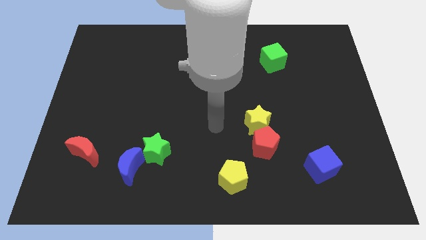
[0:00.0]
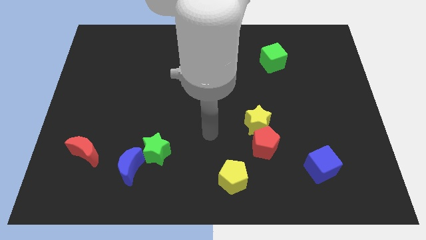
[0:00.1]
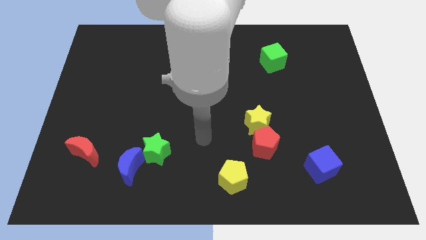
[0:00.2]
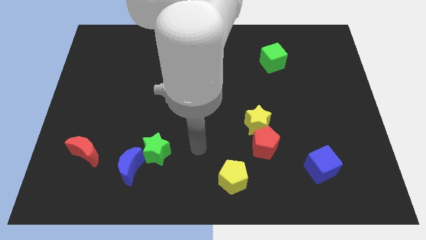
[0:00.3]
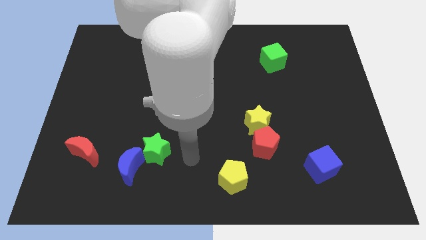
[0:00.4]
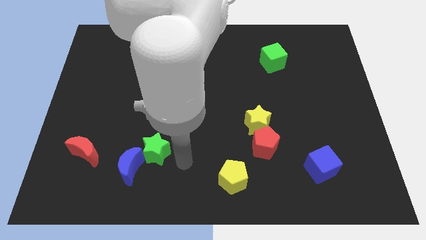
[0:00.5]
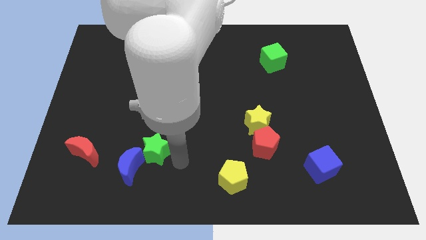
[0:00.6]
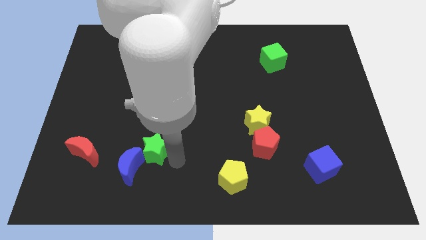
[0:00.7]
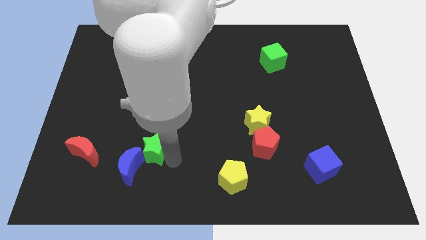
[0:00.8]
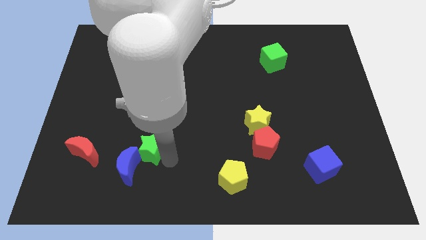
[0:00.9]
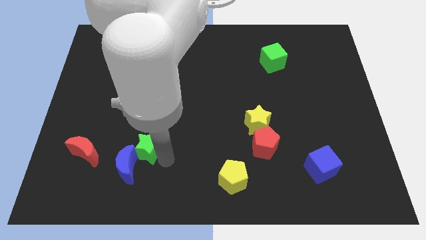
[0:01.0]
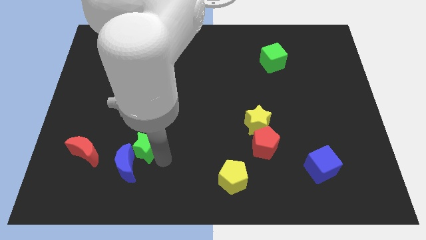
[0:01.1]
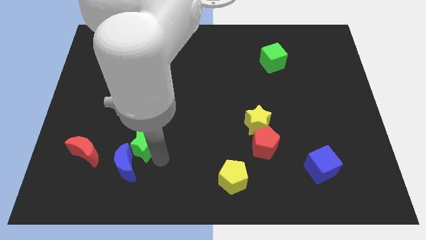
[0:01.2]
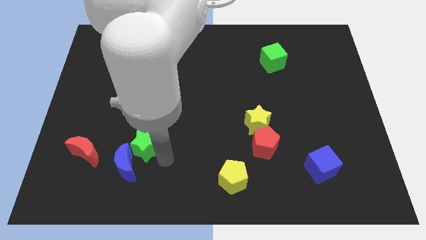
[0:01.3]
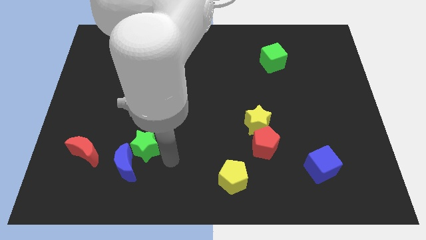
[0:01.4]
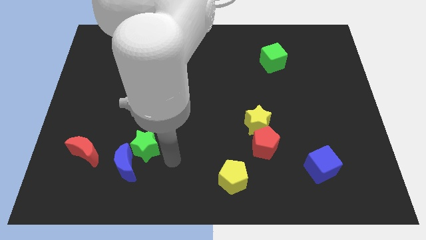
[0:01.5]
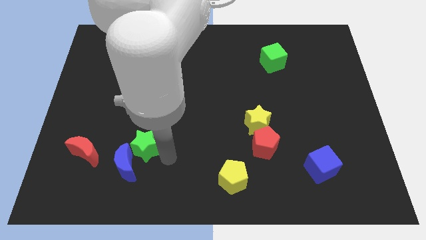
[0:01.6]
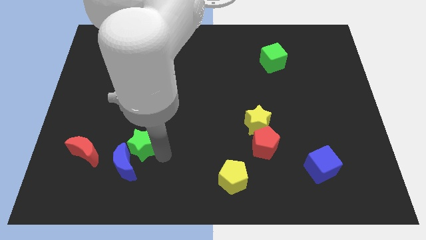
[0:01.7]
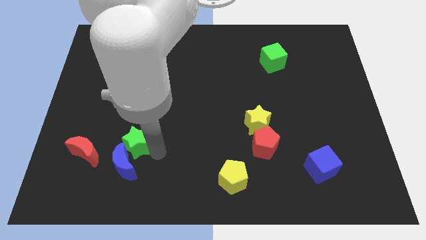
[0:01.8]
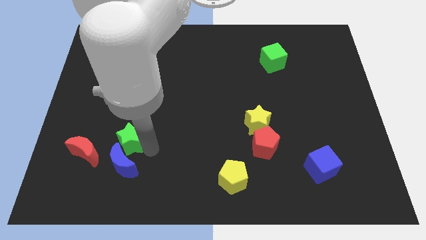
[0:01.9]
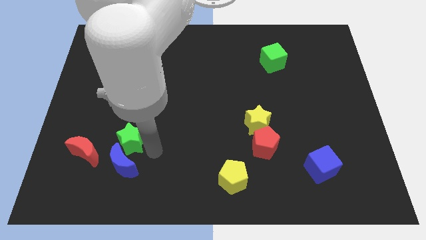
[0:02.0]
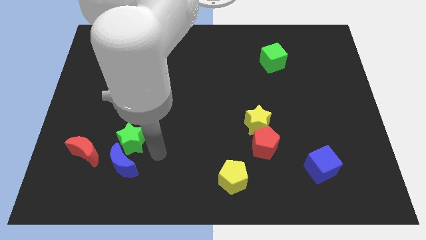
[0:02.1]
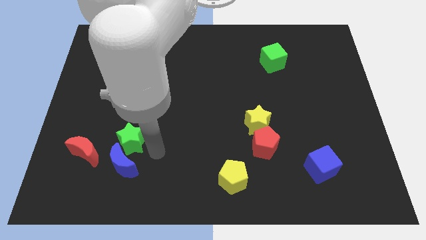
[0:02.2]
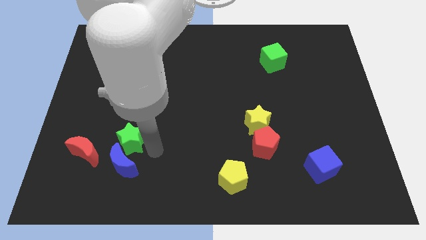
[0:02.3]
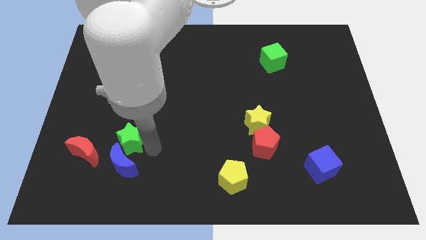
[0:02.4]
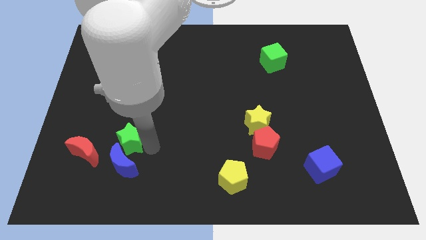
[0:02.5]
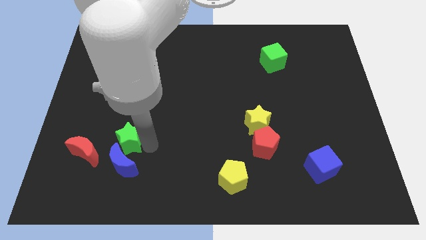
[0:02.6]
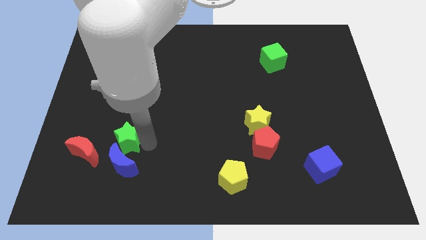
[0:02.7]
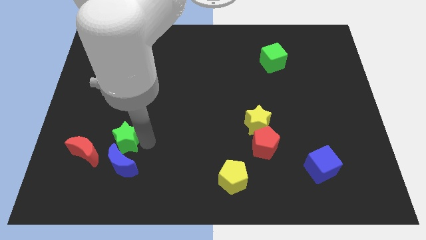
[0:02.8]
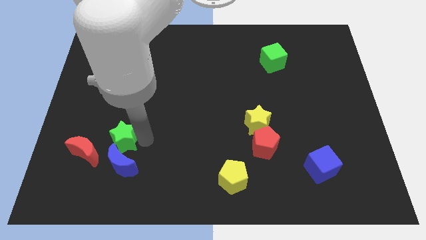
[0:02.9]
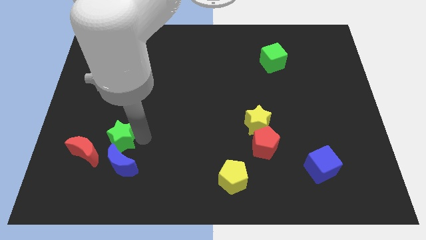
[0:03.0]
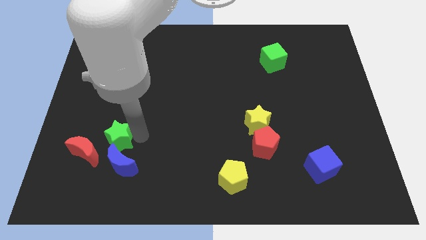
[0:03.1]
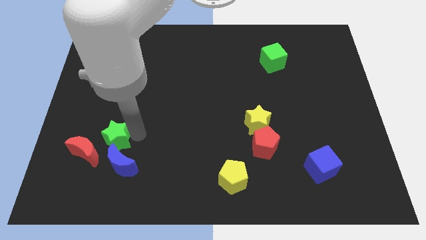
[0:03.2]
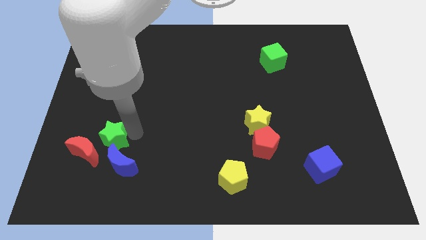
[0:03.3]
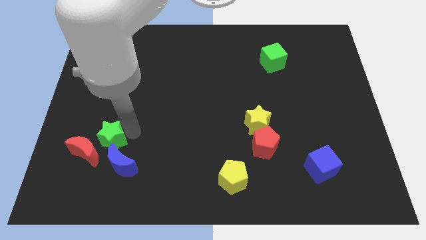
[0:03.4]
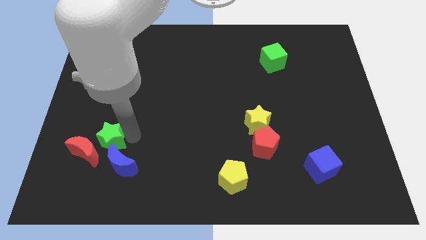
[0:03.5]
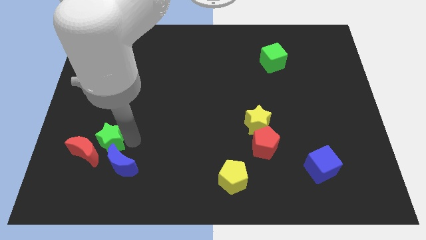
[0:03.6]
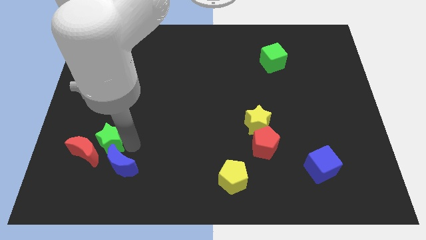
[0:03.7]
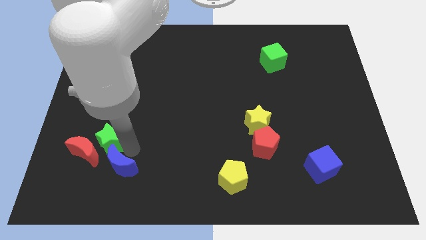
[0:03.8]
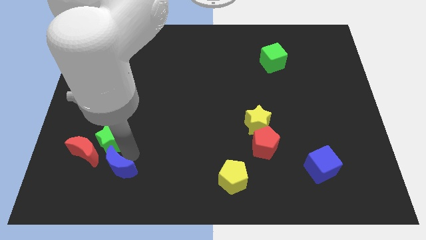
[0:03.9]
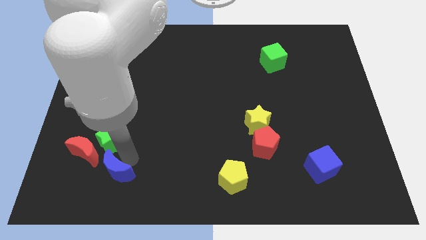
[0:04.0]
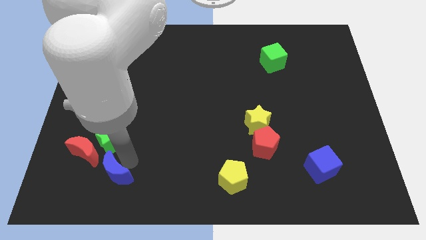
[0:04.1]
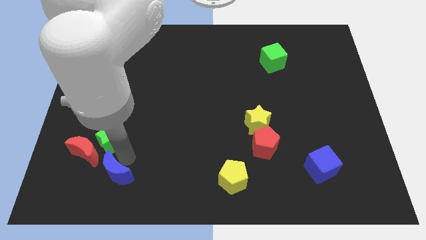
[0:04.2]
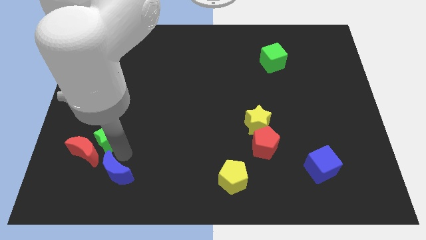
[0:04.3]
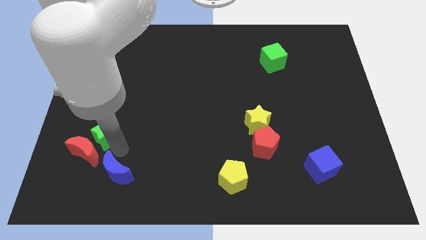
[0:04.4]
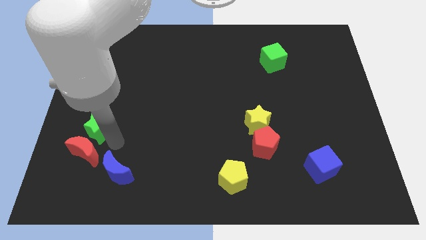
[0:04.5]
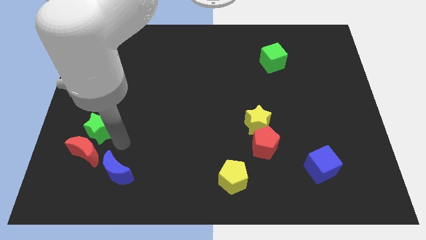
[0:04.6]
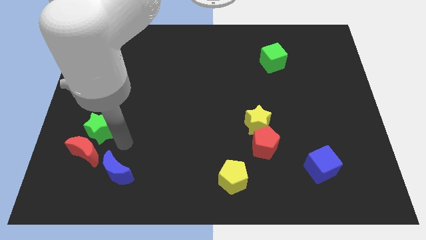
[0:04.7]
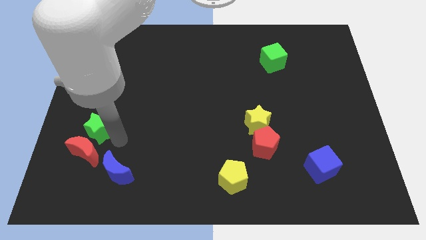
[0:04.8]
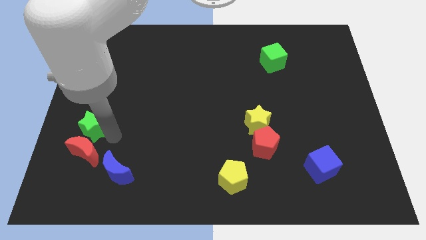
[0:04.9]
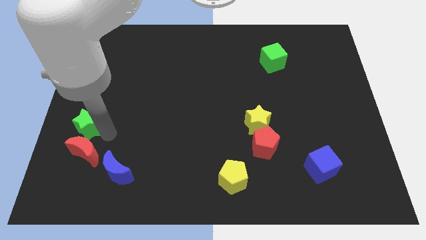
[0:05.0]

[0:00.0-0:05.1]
slide the green star to the left side

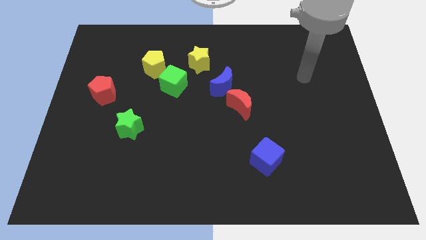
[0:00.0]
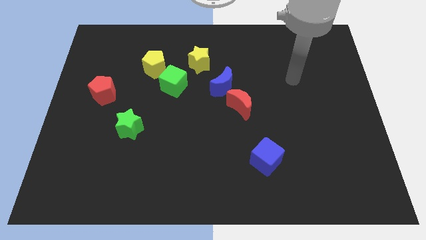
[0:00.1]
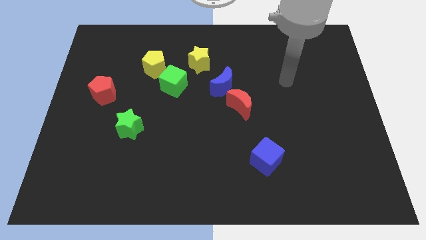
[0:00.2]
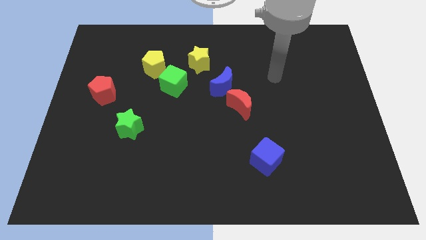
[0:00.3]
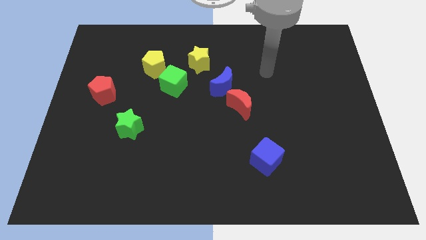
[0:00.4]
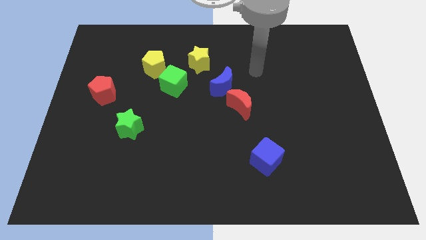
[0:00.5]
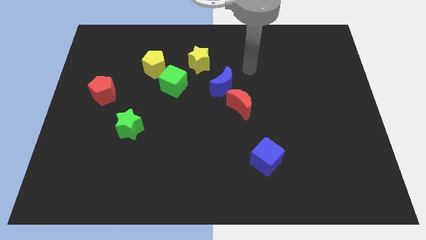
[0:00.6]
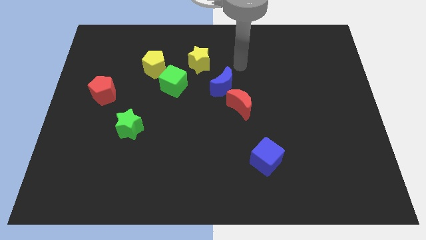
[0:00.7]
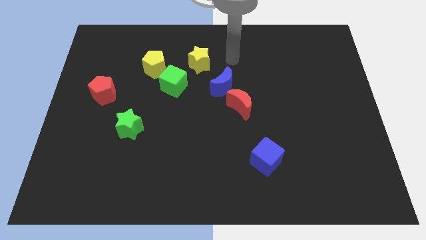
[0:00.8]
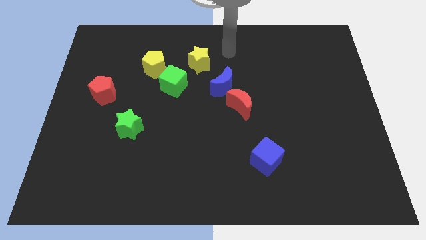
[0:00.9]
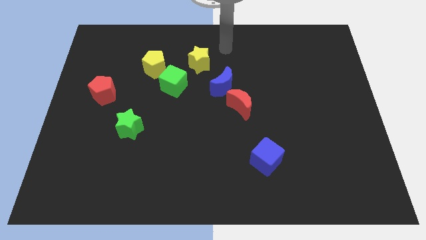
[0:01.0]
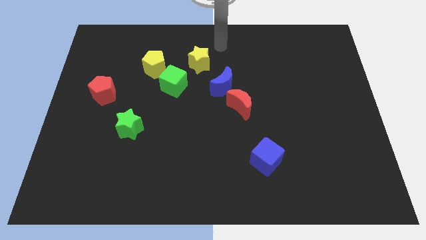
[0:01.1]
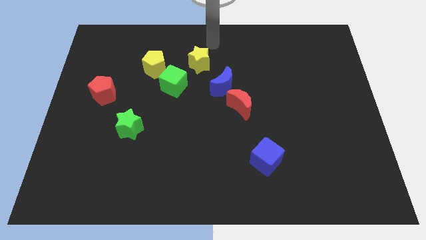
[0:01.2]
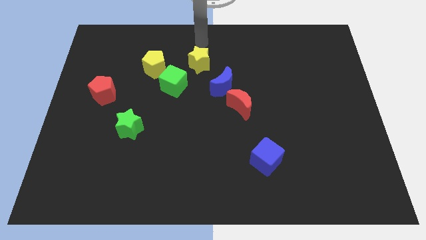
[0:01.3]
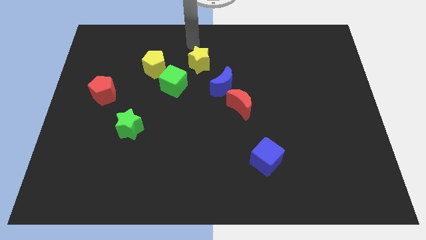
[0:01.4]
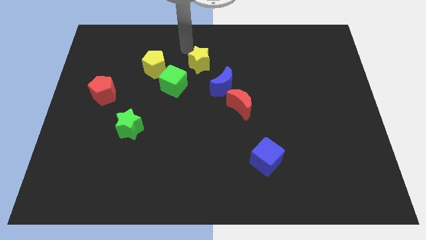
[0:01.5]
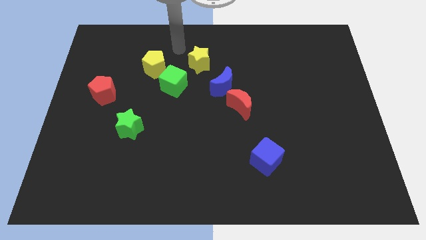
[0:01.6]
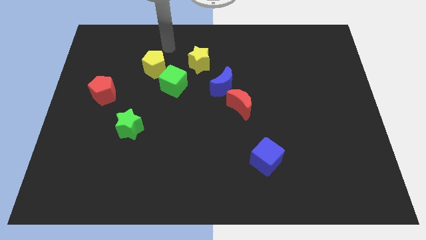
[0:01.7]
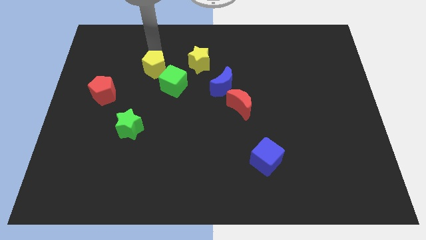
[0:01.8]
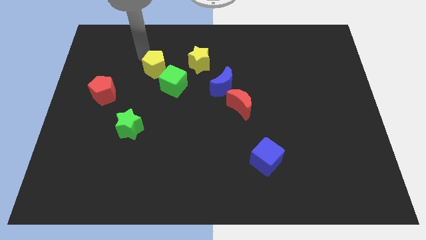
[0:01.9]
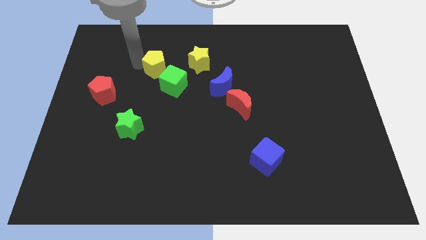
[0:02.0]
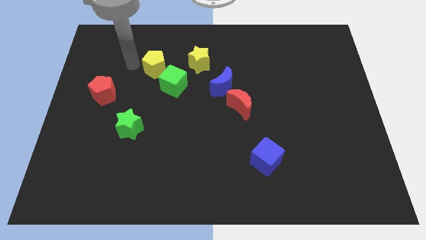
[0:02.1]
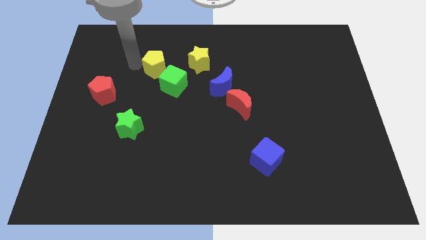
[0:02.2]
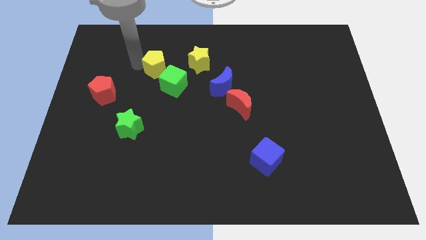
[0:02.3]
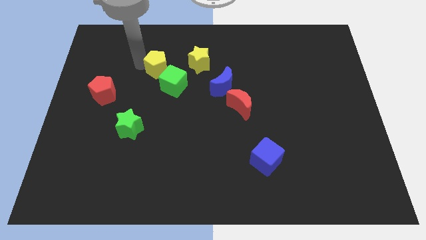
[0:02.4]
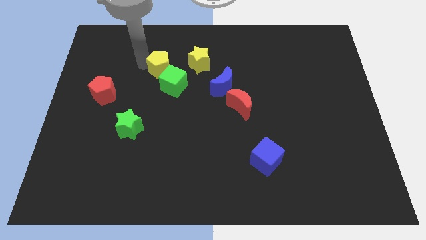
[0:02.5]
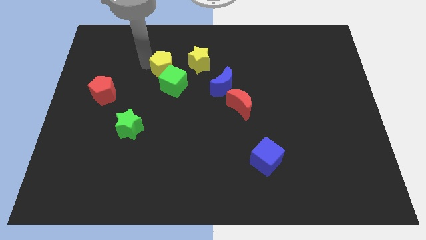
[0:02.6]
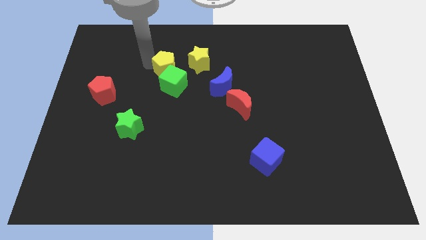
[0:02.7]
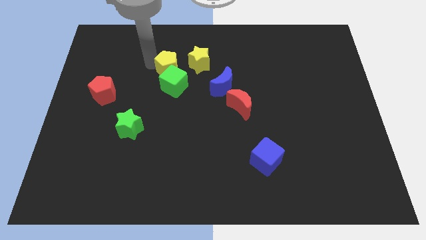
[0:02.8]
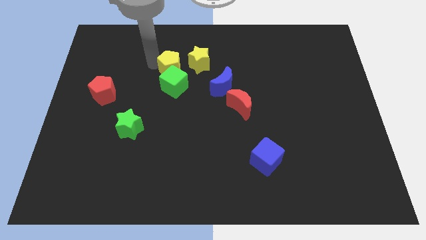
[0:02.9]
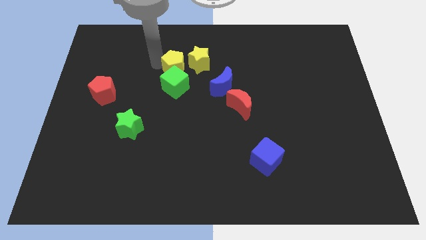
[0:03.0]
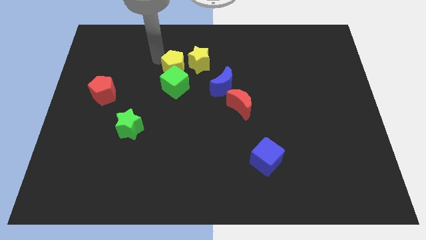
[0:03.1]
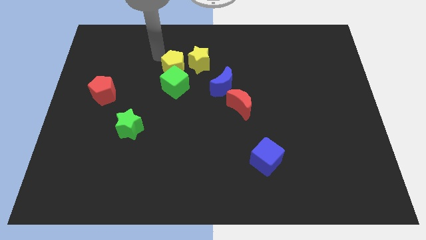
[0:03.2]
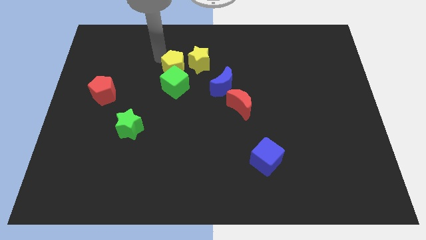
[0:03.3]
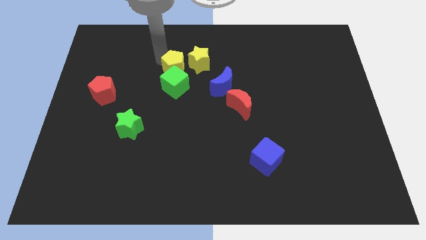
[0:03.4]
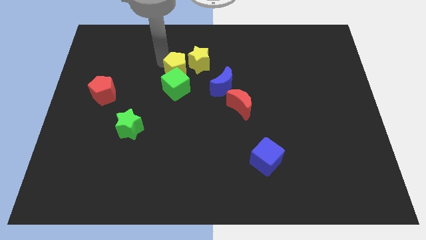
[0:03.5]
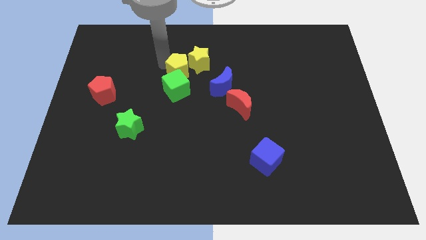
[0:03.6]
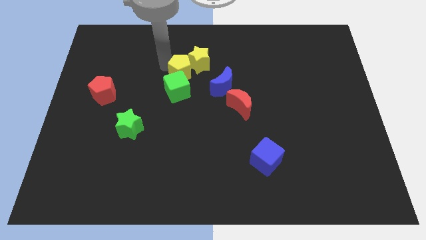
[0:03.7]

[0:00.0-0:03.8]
put the yellow pentagon to the center
